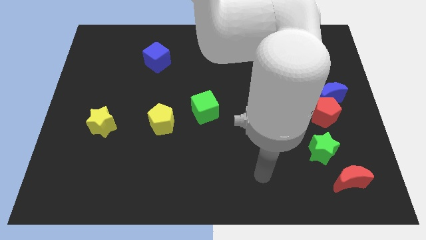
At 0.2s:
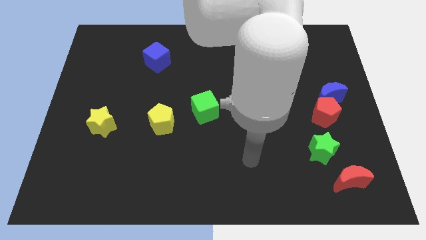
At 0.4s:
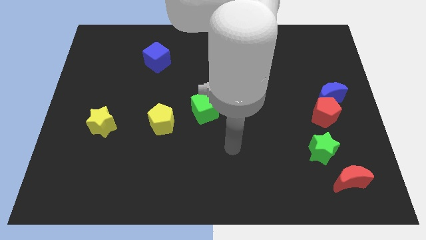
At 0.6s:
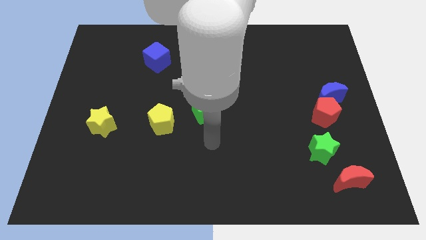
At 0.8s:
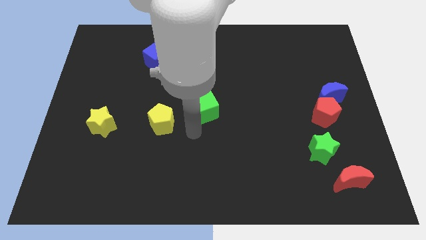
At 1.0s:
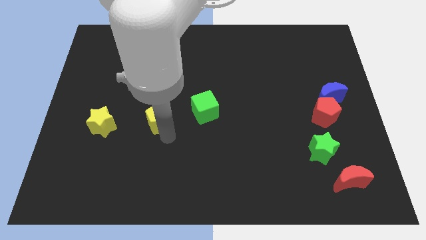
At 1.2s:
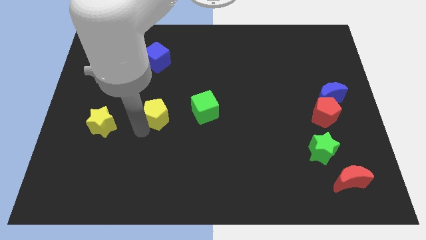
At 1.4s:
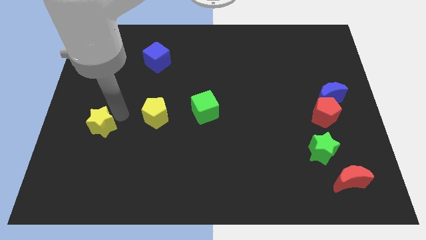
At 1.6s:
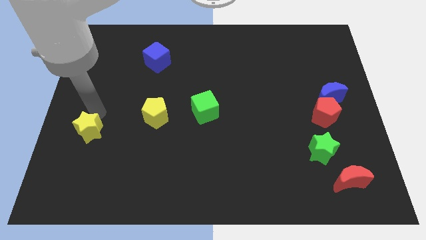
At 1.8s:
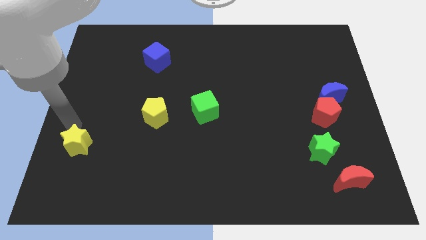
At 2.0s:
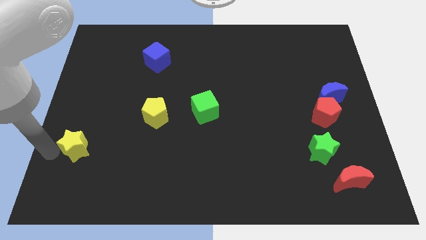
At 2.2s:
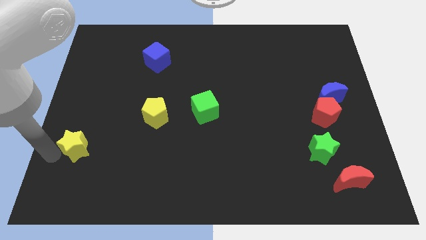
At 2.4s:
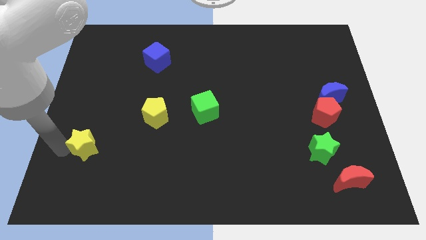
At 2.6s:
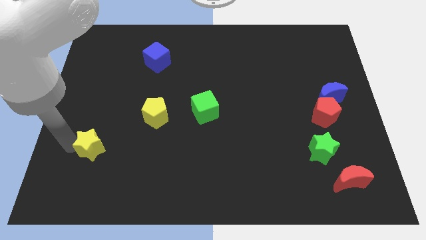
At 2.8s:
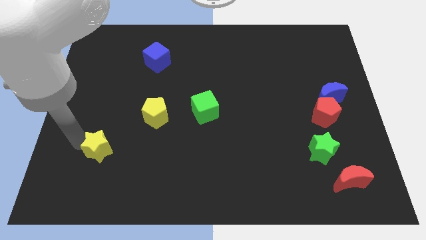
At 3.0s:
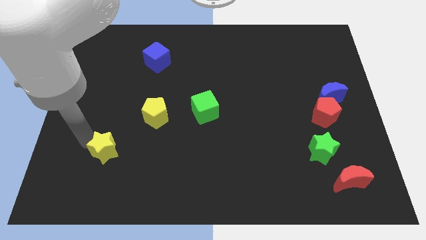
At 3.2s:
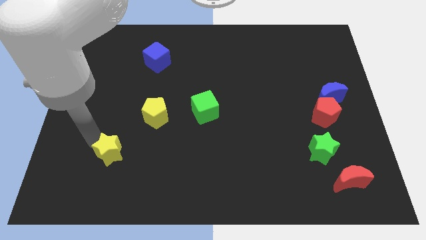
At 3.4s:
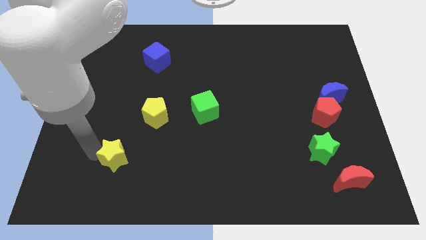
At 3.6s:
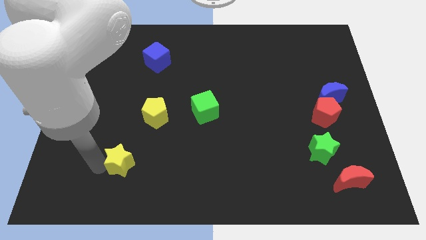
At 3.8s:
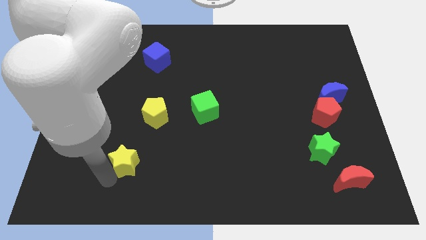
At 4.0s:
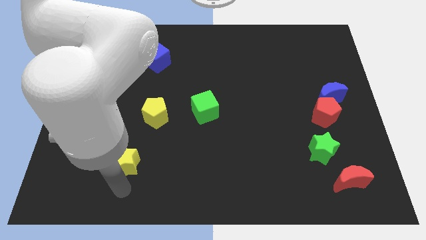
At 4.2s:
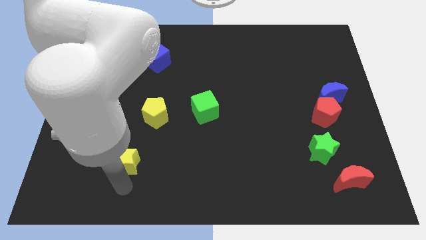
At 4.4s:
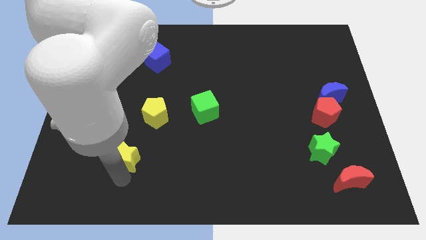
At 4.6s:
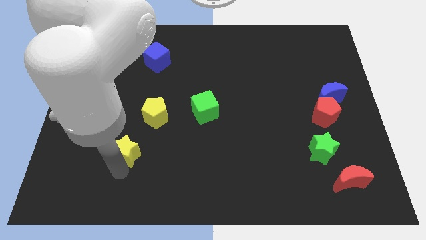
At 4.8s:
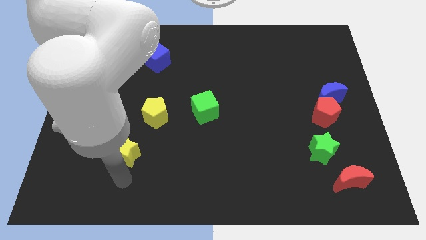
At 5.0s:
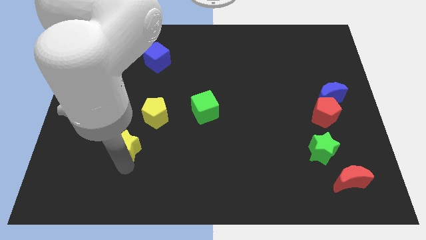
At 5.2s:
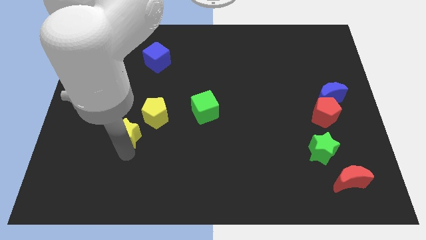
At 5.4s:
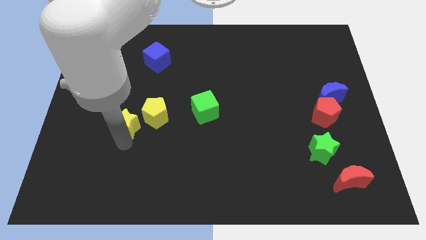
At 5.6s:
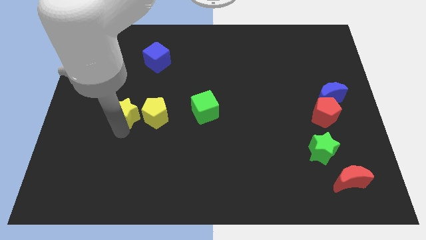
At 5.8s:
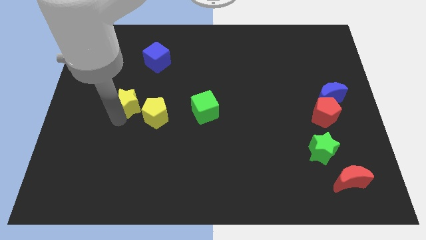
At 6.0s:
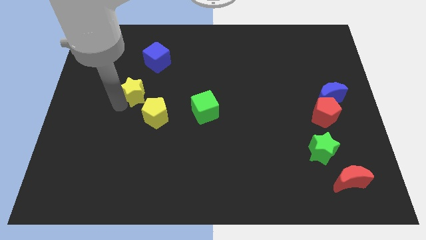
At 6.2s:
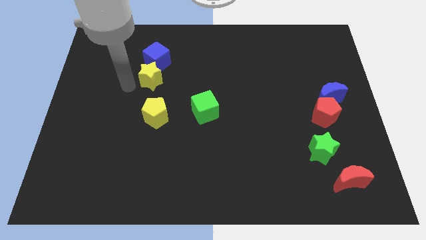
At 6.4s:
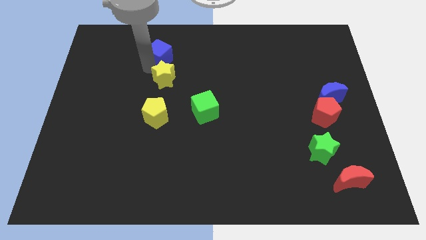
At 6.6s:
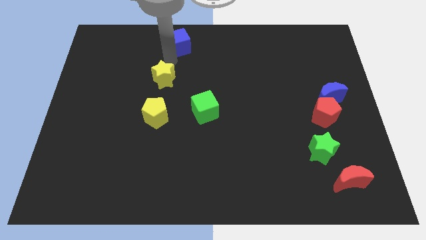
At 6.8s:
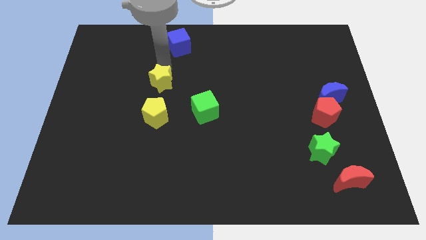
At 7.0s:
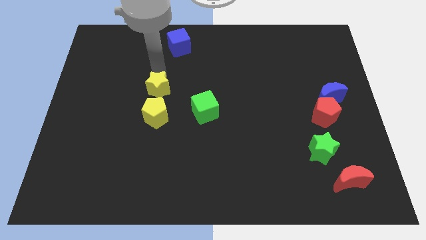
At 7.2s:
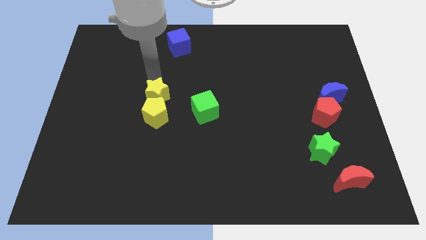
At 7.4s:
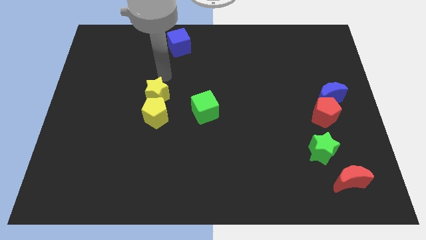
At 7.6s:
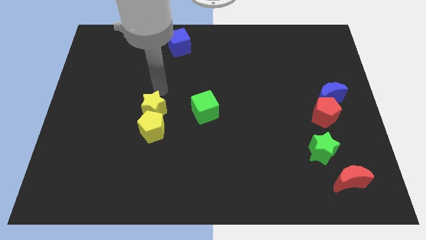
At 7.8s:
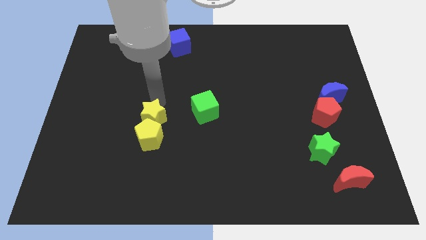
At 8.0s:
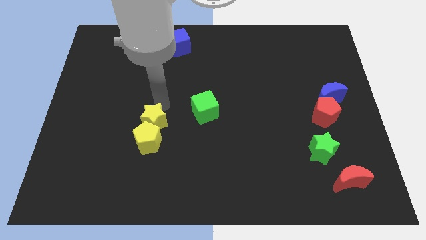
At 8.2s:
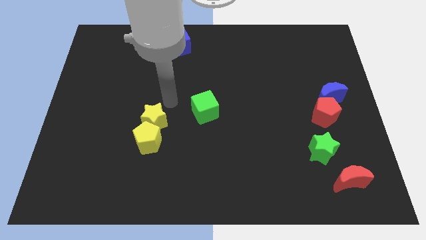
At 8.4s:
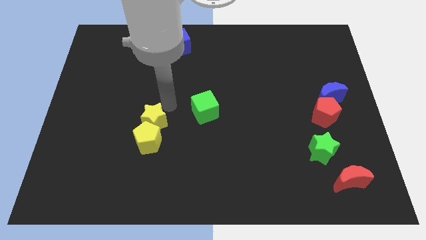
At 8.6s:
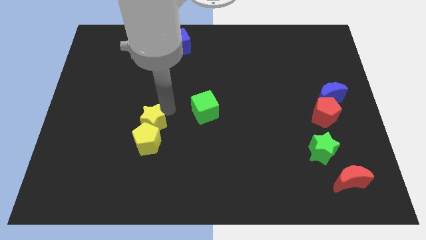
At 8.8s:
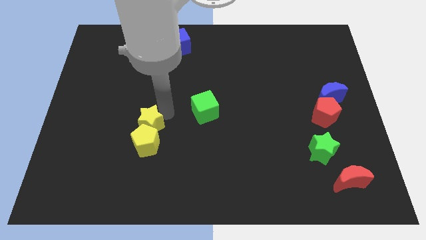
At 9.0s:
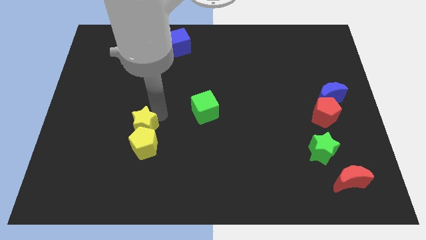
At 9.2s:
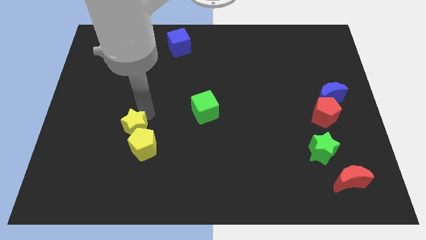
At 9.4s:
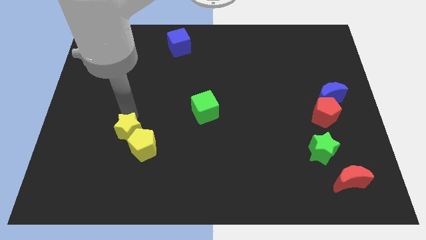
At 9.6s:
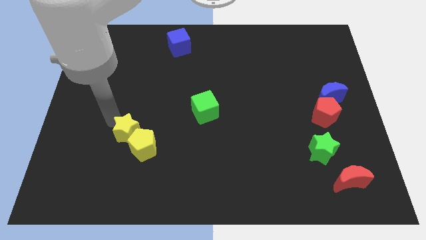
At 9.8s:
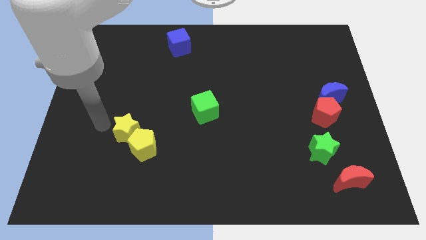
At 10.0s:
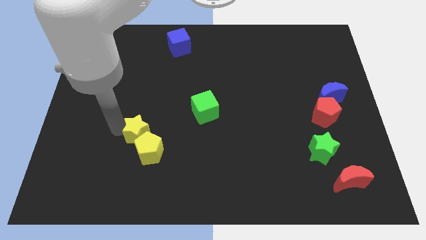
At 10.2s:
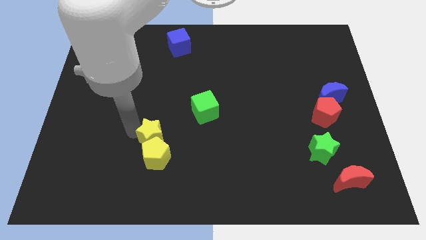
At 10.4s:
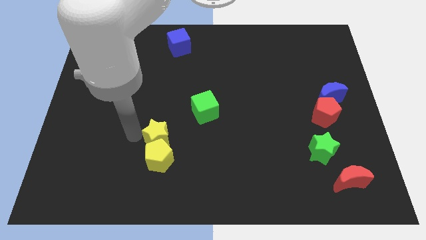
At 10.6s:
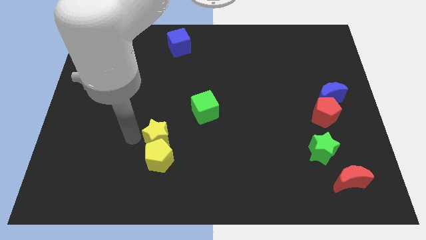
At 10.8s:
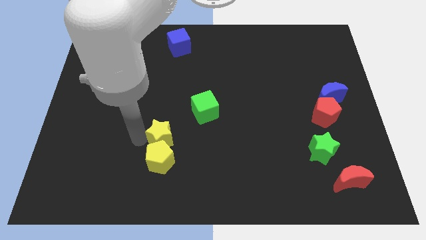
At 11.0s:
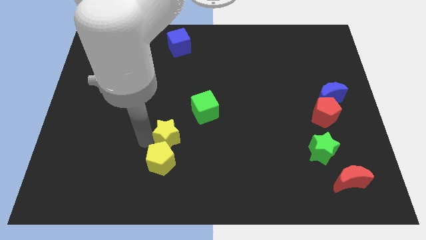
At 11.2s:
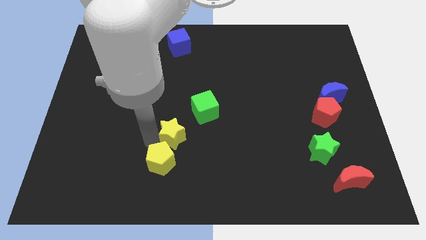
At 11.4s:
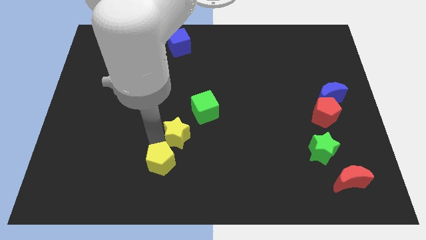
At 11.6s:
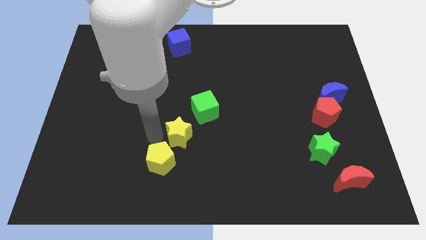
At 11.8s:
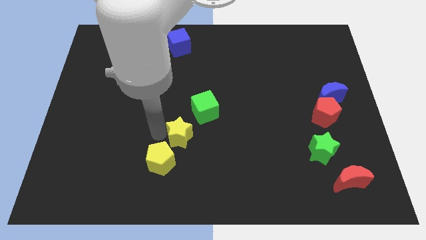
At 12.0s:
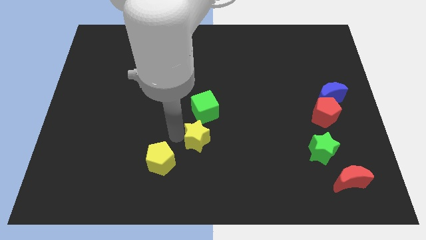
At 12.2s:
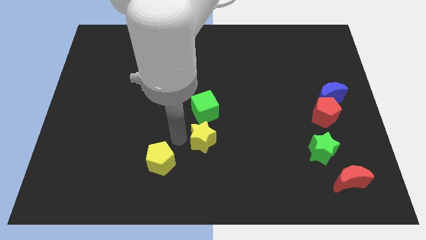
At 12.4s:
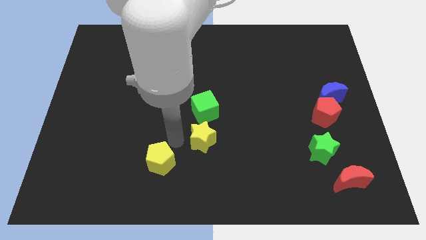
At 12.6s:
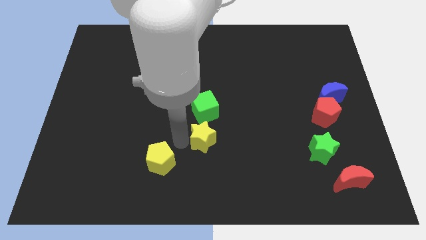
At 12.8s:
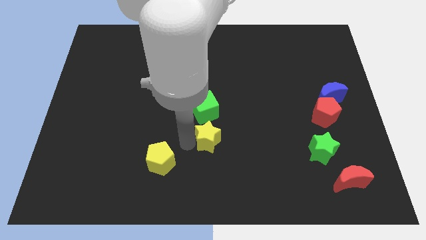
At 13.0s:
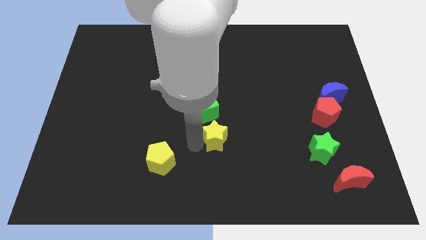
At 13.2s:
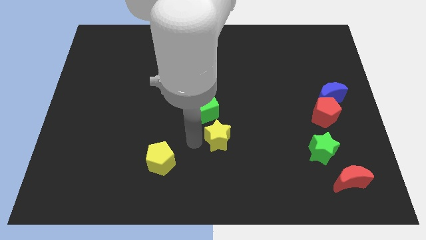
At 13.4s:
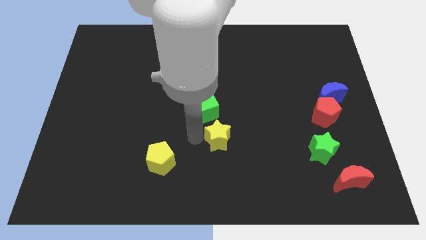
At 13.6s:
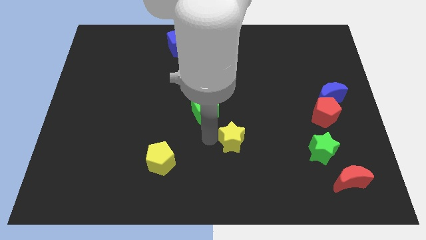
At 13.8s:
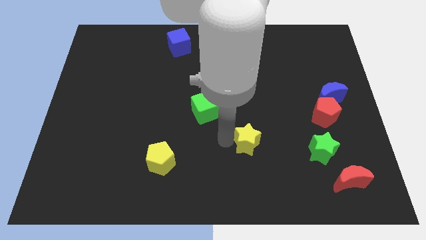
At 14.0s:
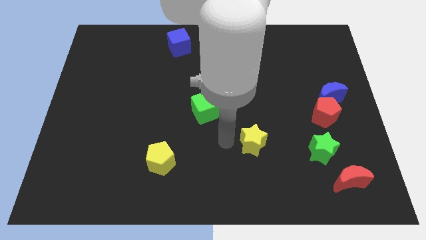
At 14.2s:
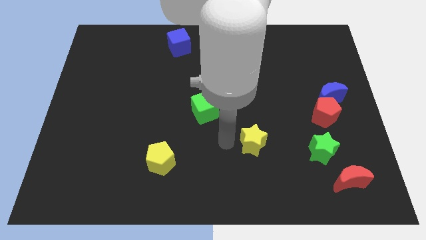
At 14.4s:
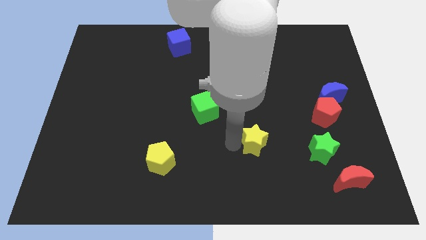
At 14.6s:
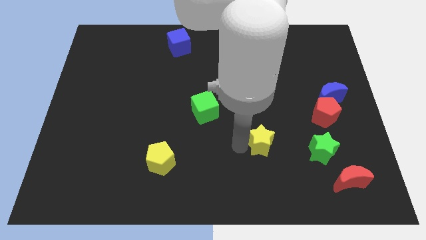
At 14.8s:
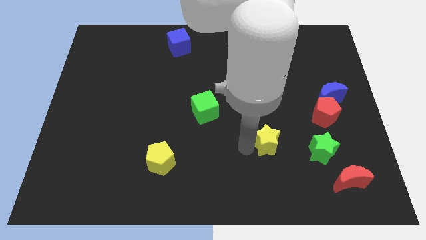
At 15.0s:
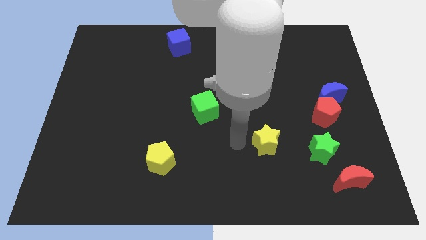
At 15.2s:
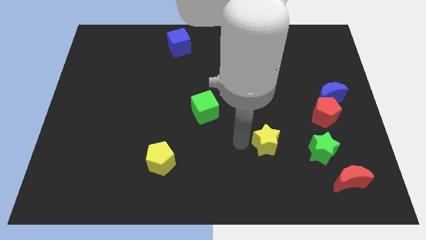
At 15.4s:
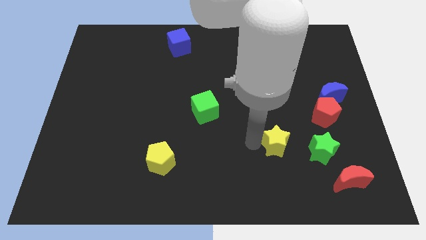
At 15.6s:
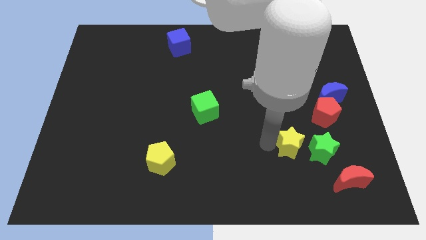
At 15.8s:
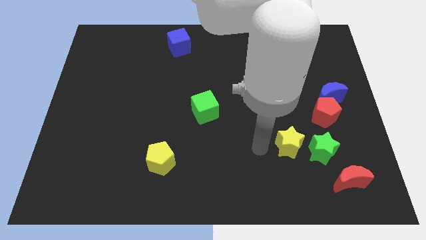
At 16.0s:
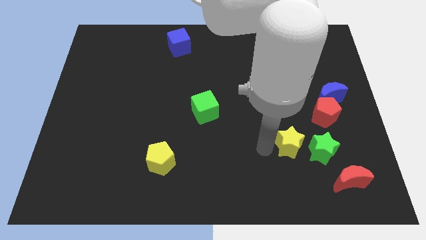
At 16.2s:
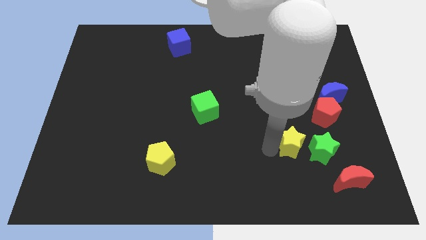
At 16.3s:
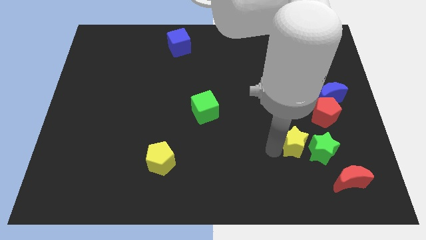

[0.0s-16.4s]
put the yellow star close to the green star
